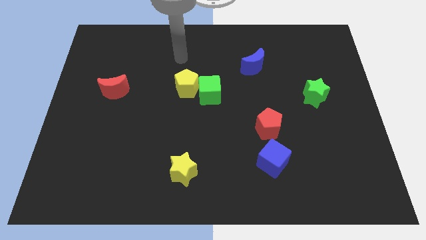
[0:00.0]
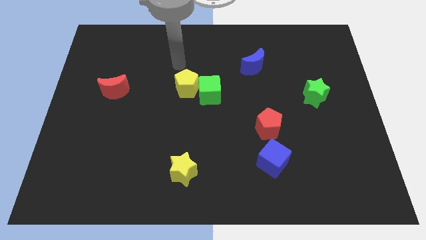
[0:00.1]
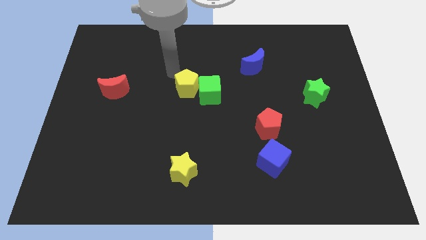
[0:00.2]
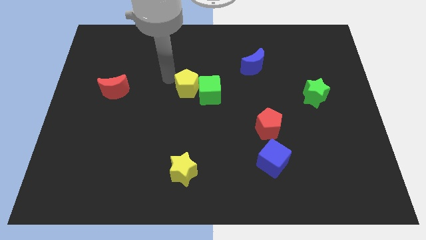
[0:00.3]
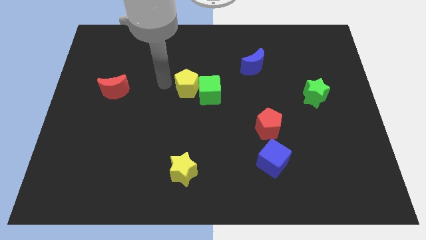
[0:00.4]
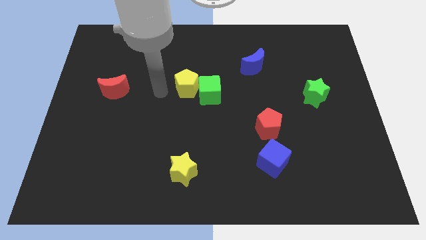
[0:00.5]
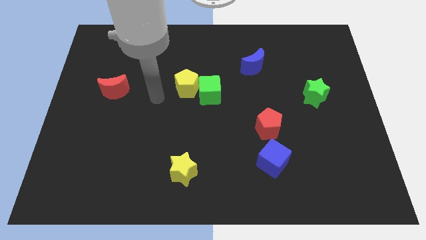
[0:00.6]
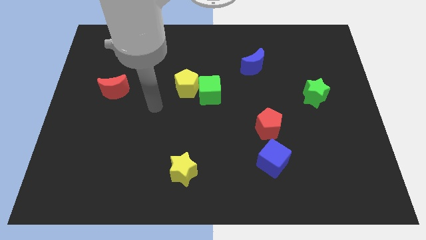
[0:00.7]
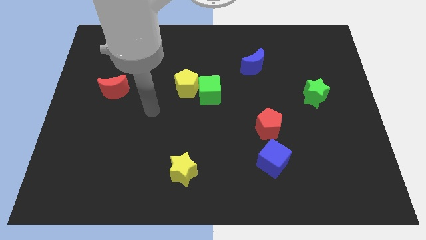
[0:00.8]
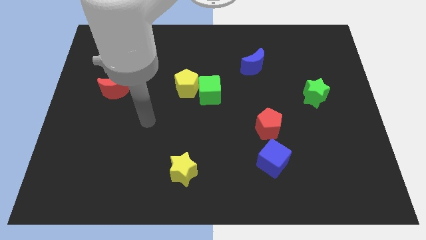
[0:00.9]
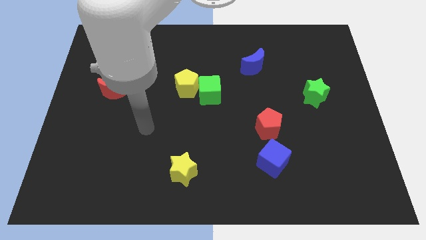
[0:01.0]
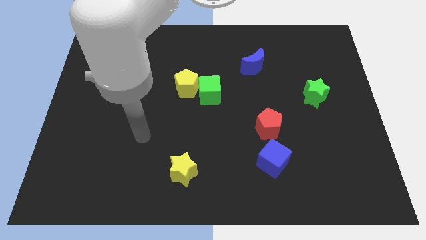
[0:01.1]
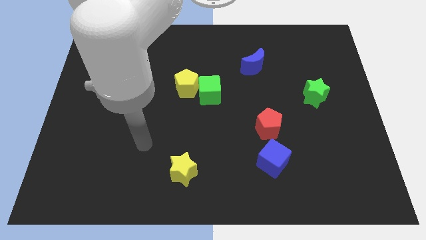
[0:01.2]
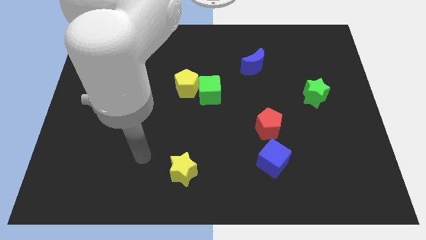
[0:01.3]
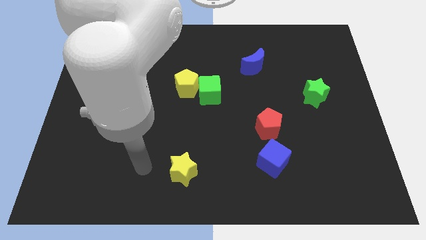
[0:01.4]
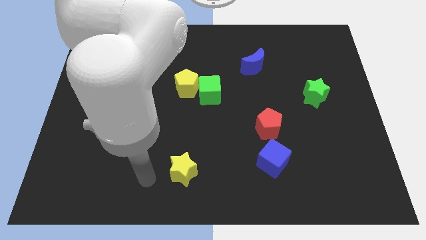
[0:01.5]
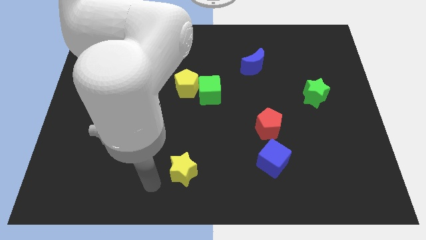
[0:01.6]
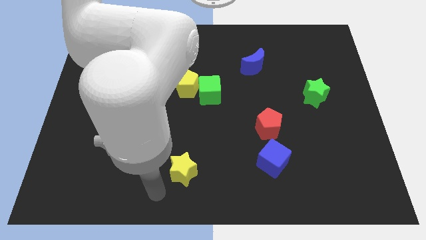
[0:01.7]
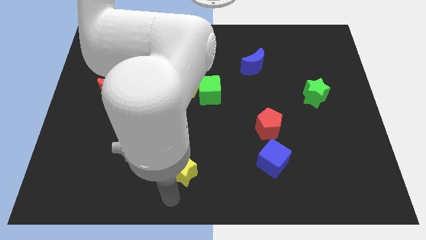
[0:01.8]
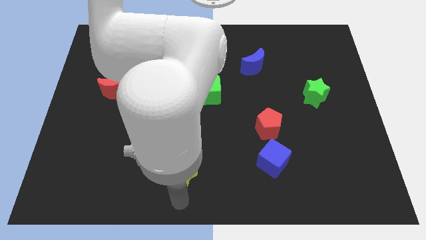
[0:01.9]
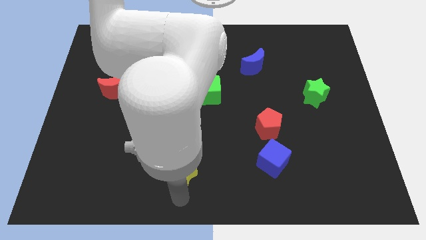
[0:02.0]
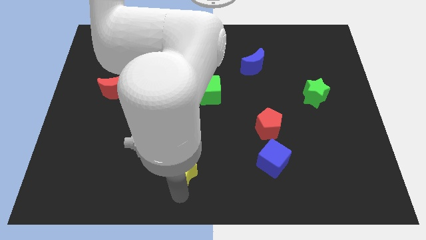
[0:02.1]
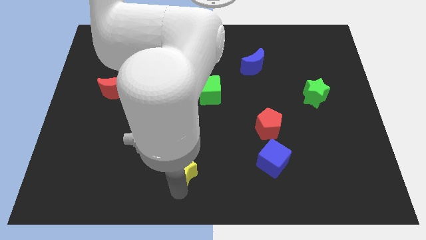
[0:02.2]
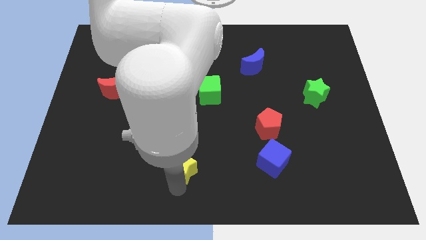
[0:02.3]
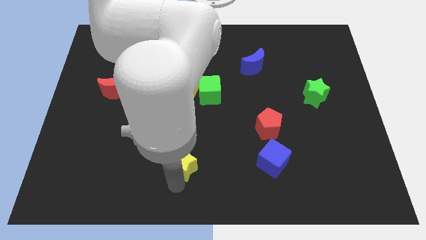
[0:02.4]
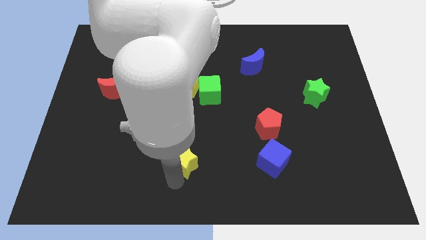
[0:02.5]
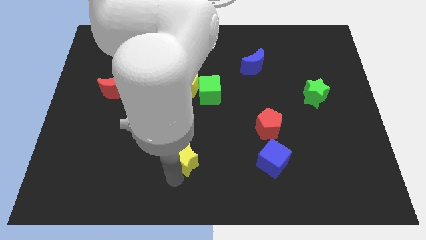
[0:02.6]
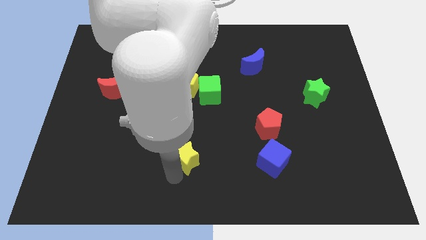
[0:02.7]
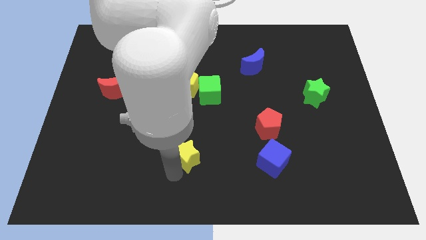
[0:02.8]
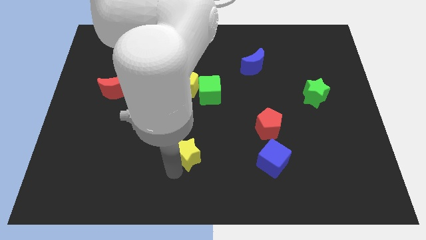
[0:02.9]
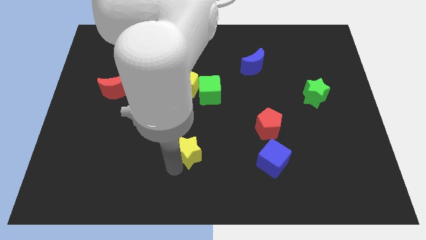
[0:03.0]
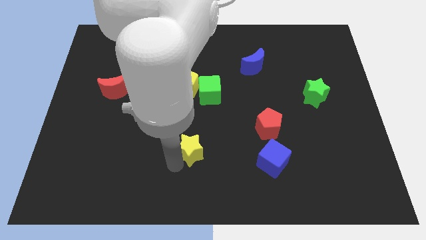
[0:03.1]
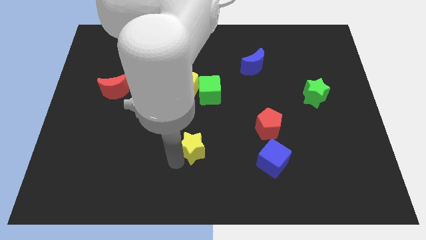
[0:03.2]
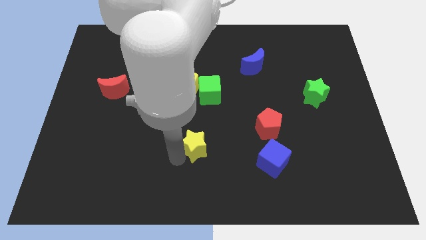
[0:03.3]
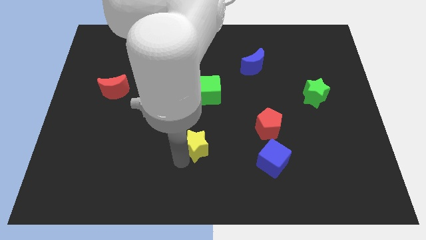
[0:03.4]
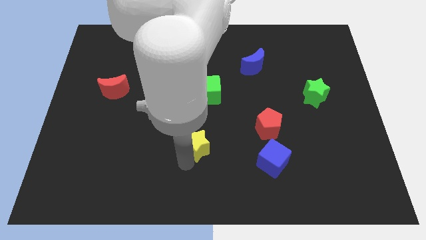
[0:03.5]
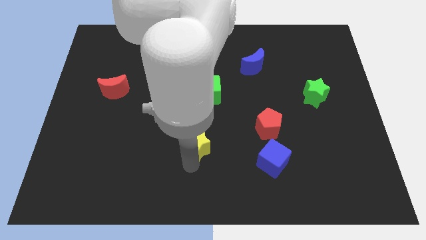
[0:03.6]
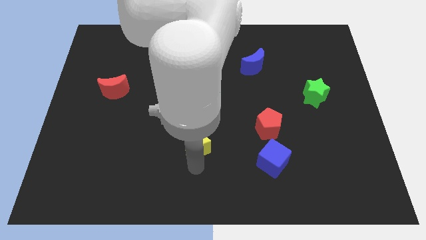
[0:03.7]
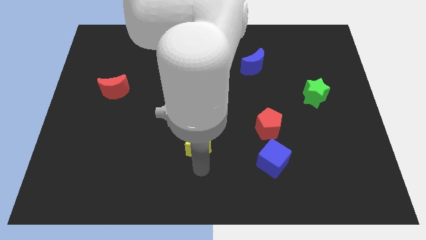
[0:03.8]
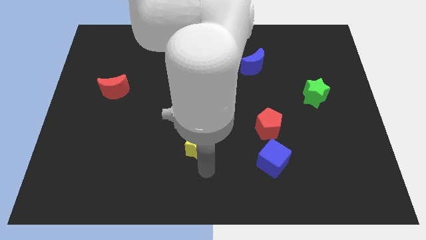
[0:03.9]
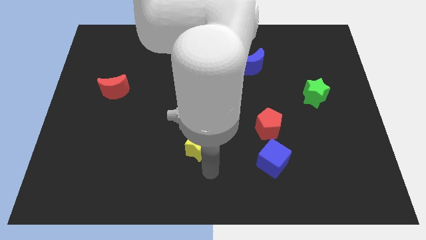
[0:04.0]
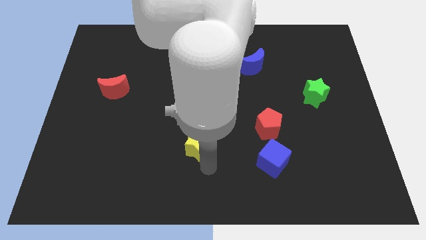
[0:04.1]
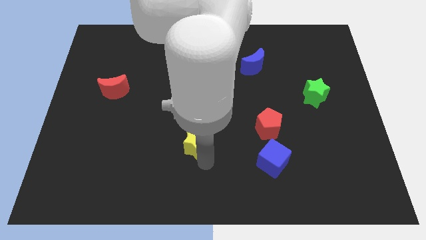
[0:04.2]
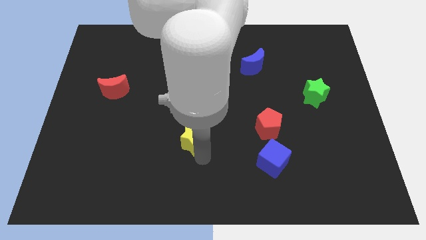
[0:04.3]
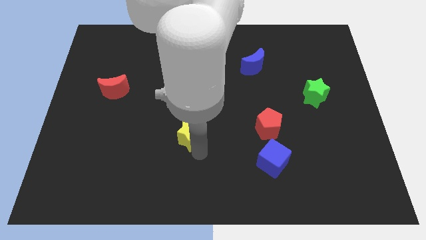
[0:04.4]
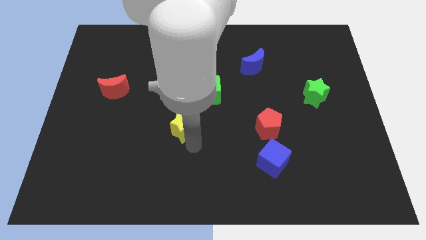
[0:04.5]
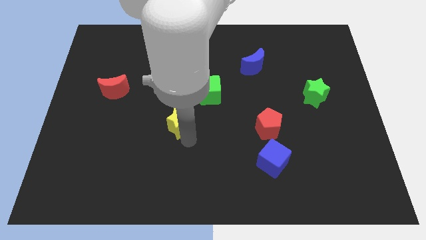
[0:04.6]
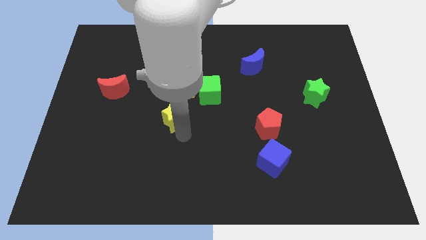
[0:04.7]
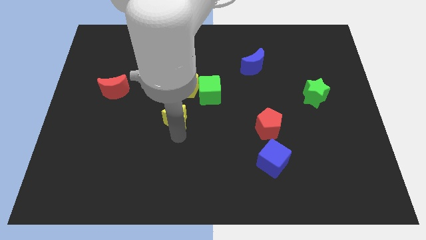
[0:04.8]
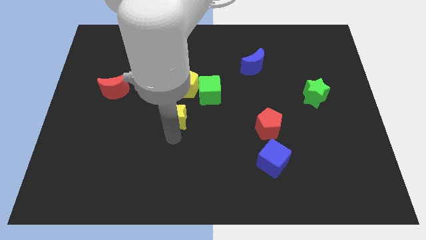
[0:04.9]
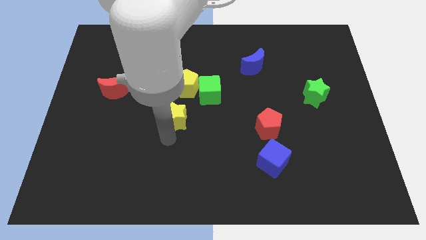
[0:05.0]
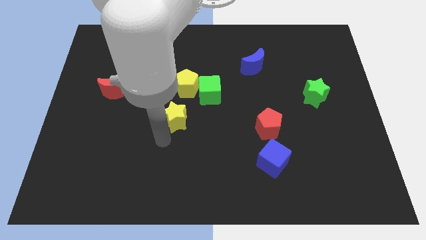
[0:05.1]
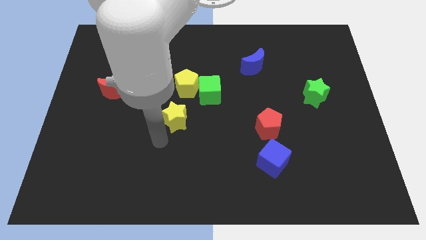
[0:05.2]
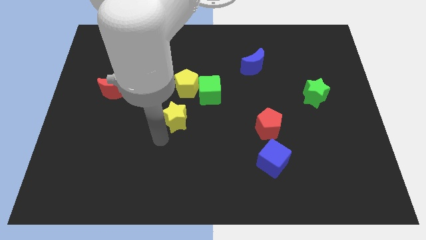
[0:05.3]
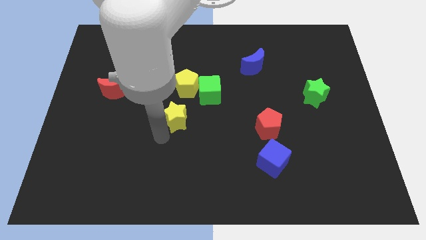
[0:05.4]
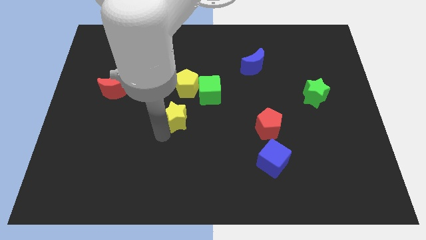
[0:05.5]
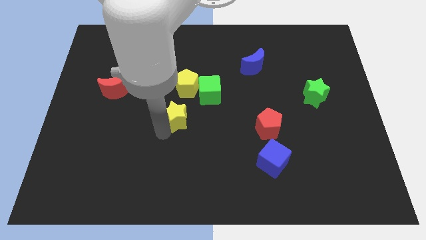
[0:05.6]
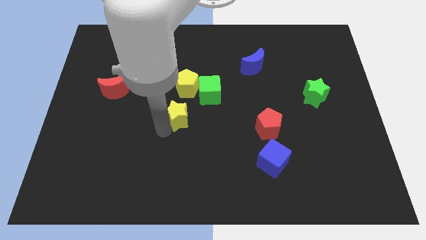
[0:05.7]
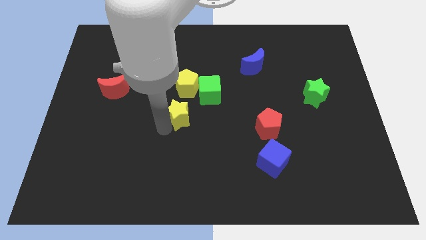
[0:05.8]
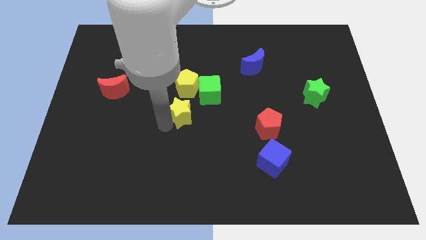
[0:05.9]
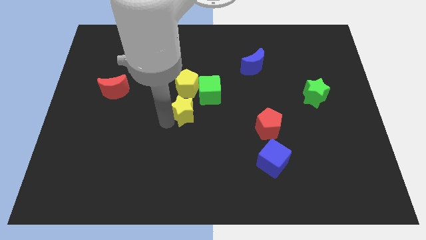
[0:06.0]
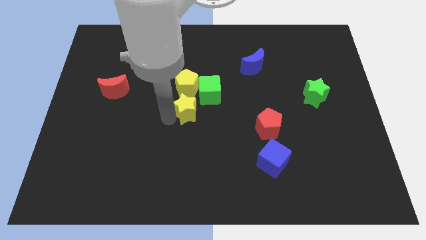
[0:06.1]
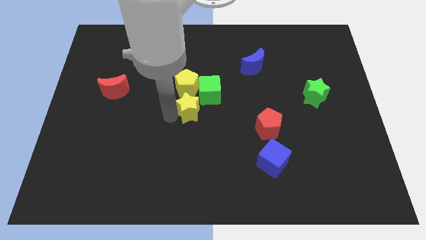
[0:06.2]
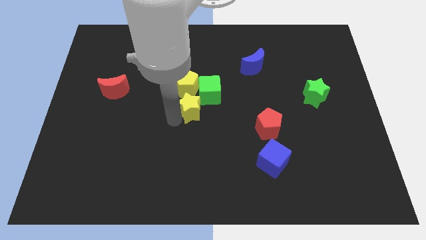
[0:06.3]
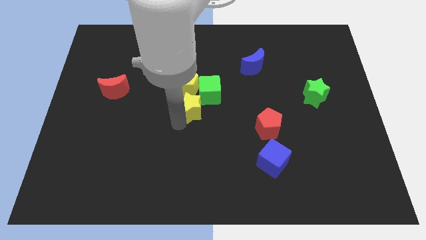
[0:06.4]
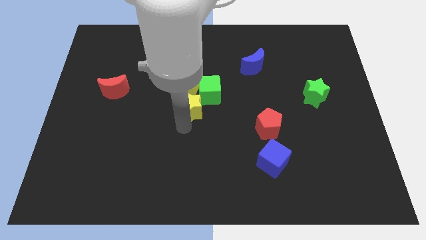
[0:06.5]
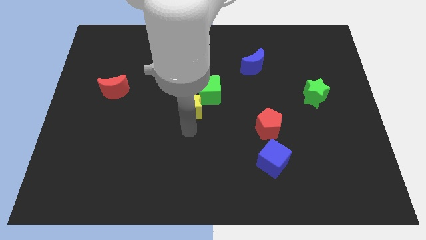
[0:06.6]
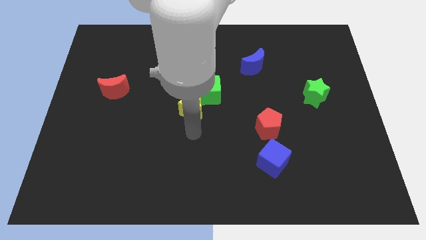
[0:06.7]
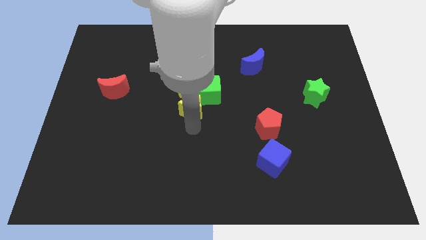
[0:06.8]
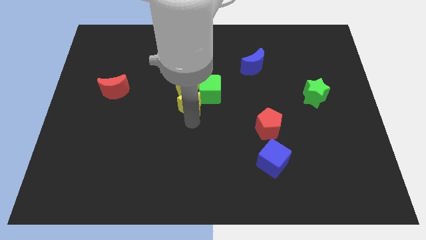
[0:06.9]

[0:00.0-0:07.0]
put the yellow star close to the yellow pentagon

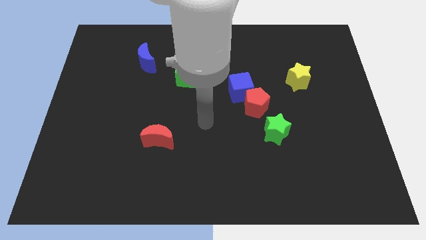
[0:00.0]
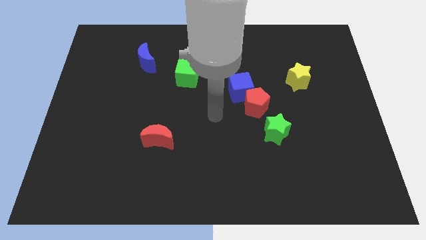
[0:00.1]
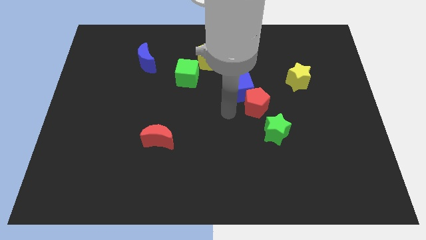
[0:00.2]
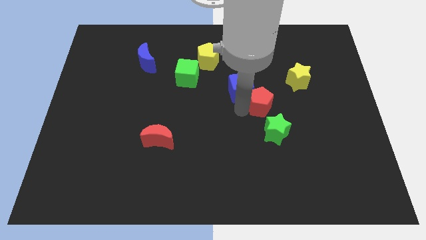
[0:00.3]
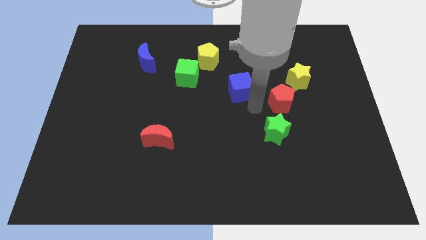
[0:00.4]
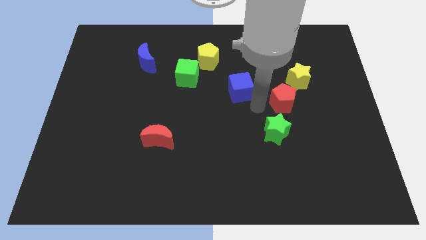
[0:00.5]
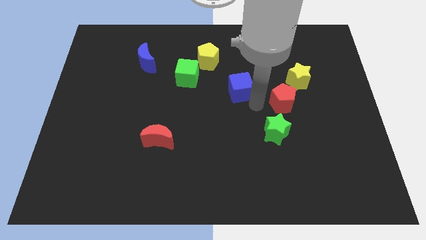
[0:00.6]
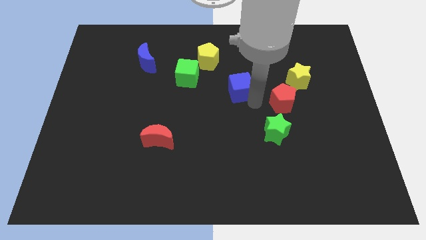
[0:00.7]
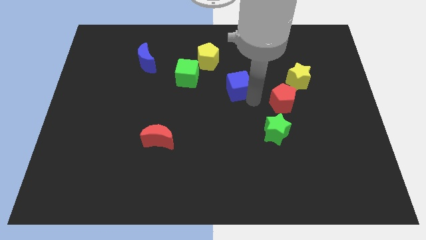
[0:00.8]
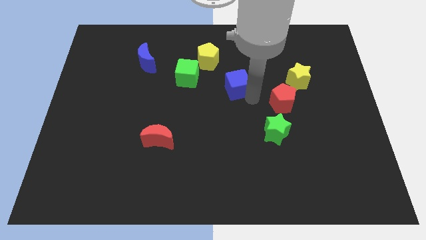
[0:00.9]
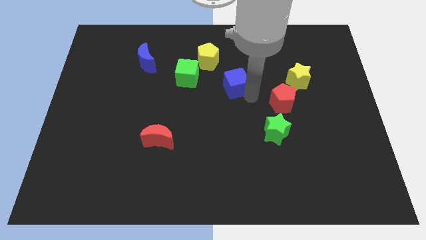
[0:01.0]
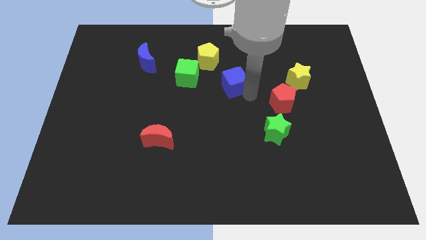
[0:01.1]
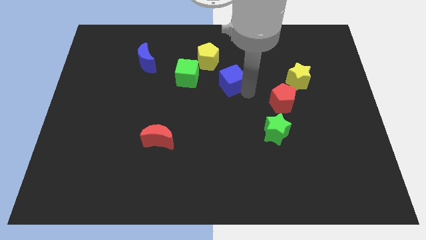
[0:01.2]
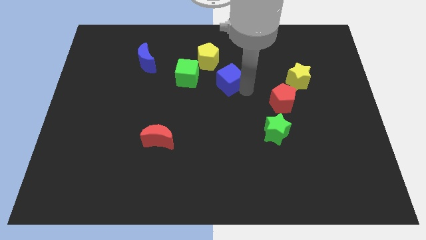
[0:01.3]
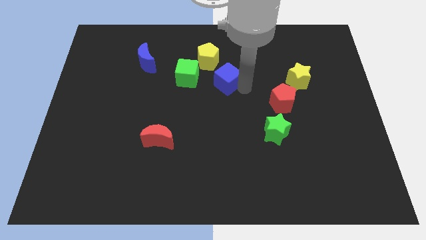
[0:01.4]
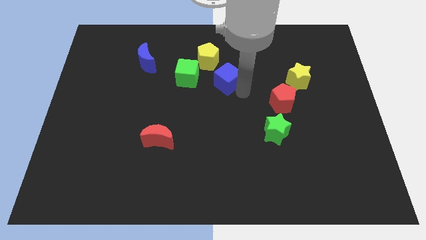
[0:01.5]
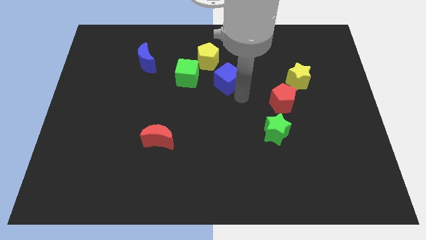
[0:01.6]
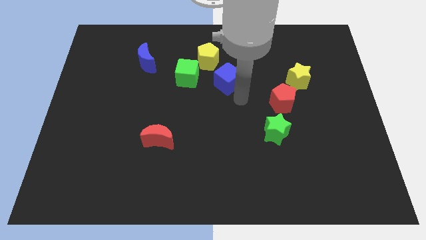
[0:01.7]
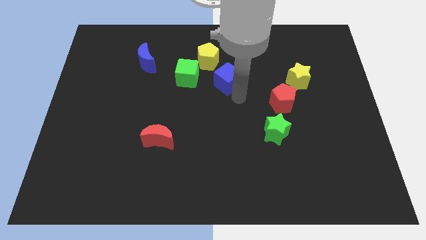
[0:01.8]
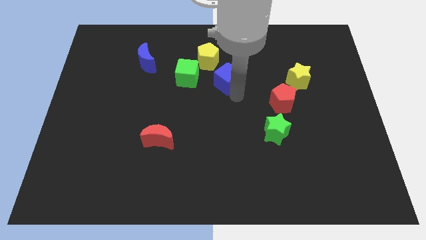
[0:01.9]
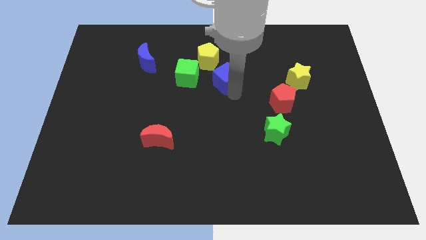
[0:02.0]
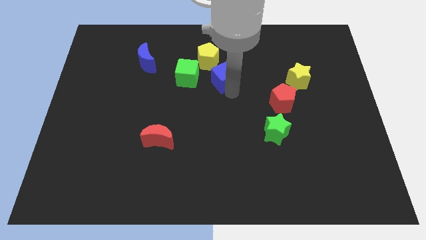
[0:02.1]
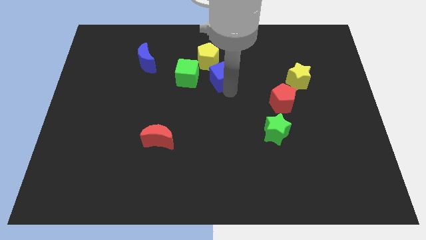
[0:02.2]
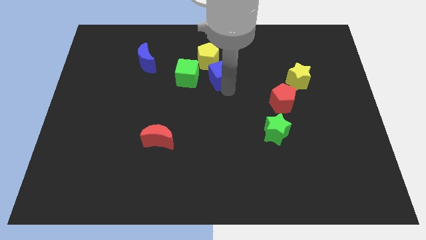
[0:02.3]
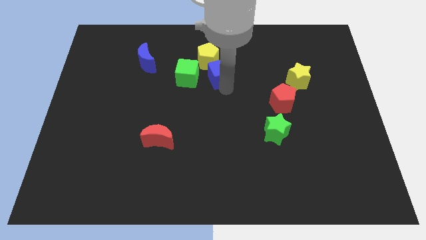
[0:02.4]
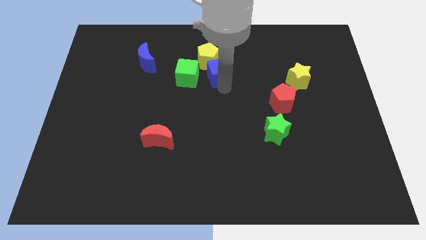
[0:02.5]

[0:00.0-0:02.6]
push the blue cube towards the yellow pentagon
